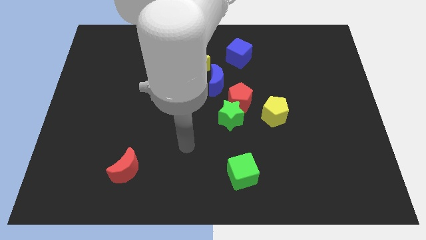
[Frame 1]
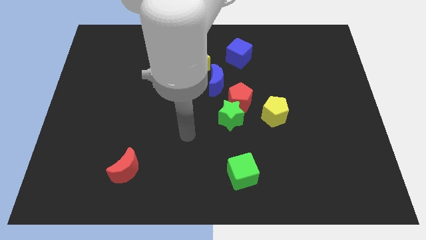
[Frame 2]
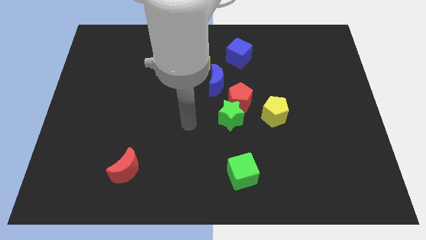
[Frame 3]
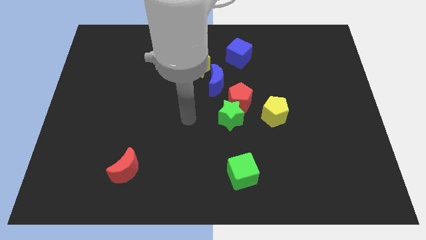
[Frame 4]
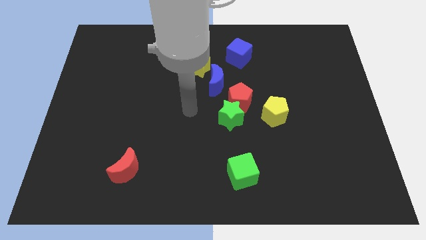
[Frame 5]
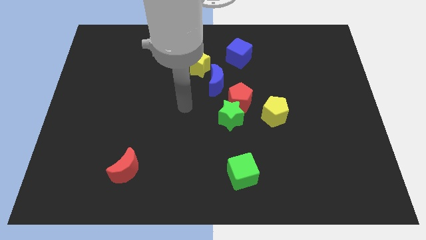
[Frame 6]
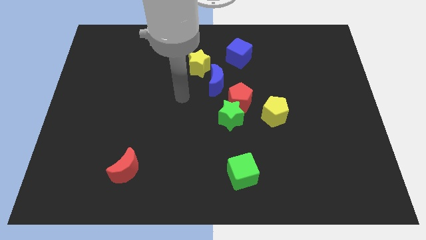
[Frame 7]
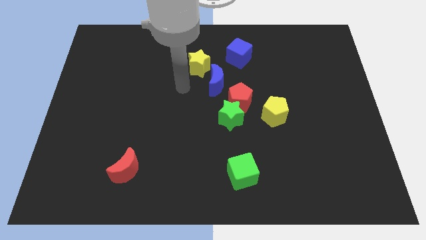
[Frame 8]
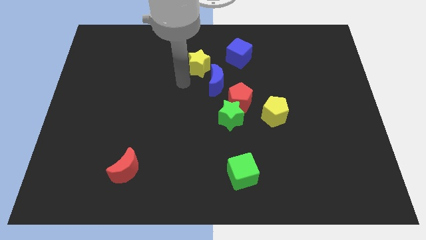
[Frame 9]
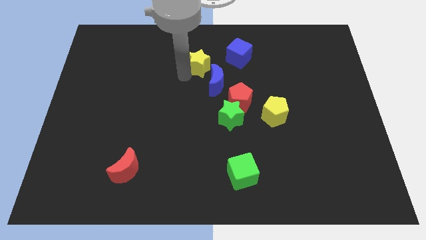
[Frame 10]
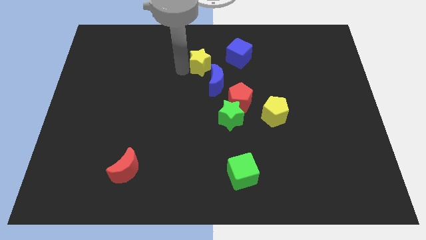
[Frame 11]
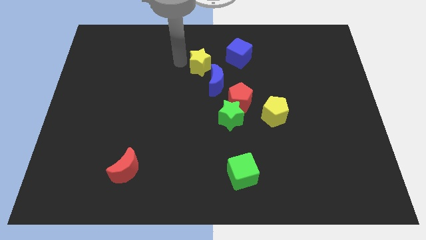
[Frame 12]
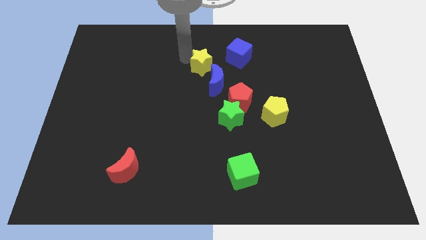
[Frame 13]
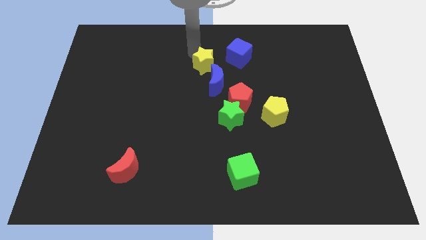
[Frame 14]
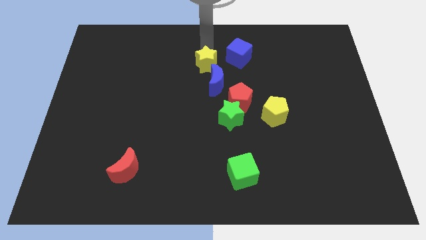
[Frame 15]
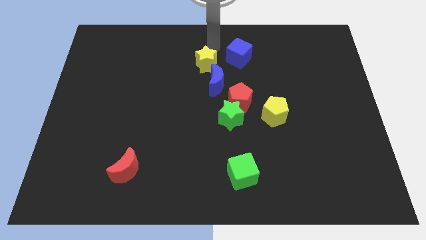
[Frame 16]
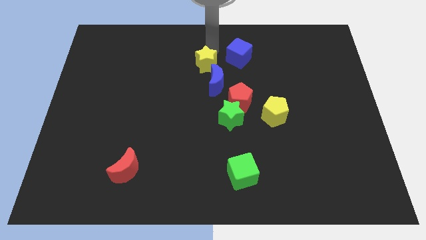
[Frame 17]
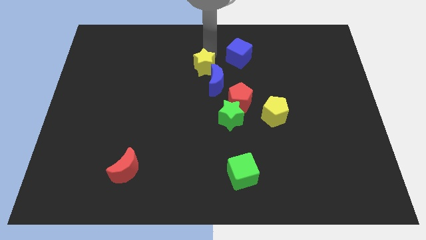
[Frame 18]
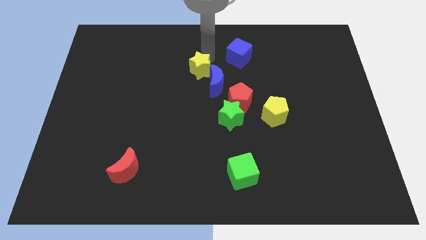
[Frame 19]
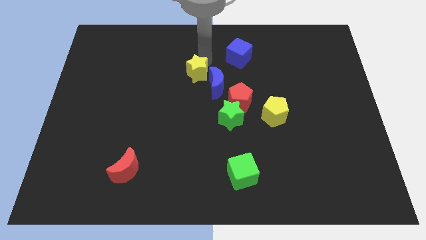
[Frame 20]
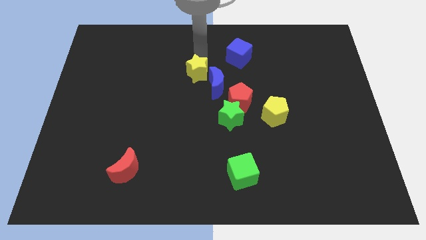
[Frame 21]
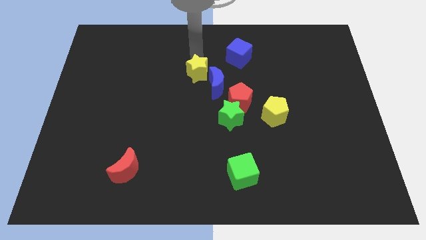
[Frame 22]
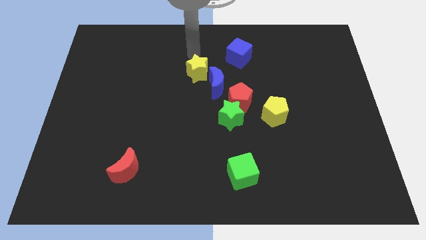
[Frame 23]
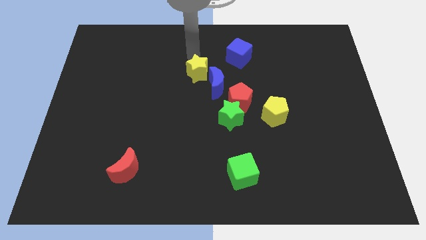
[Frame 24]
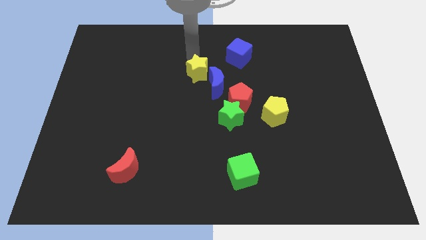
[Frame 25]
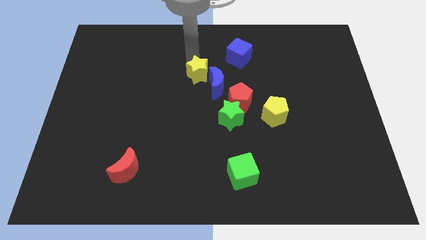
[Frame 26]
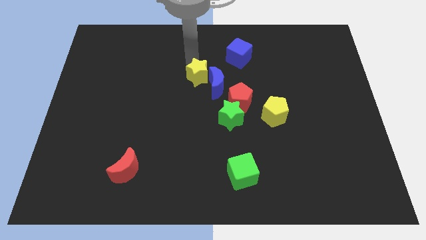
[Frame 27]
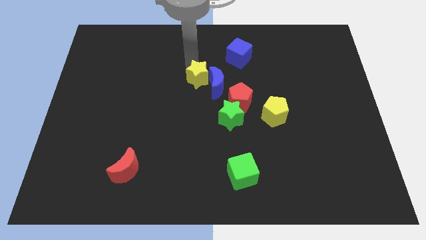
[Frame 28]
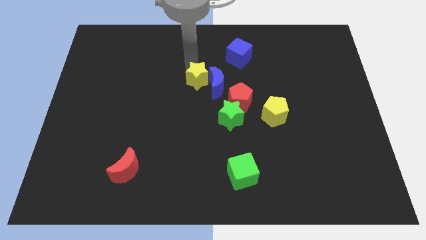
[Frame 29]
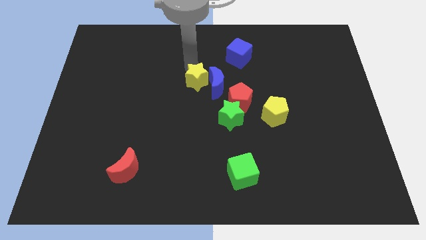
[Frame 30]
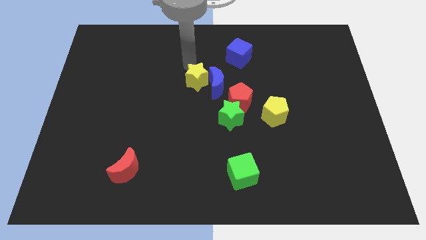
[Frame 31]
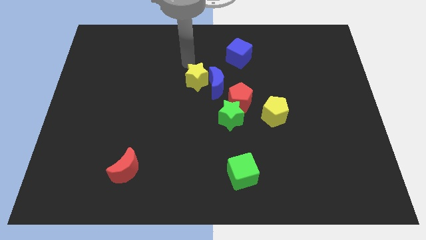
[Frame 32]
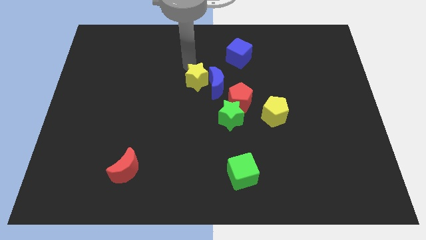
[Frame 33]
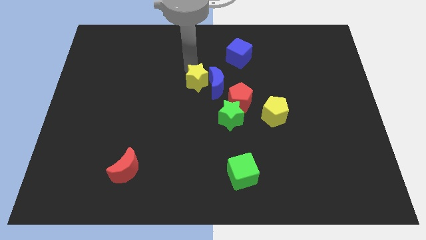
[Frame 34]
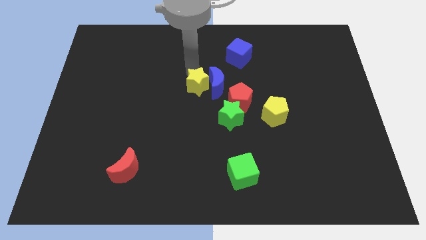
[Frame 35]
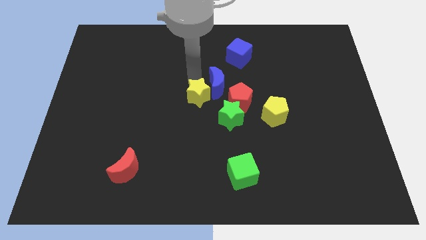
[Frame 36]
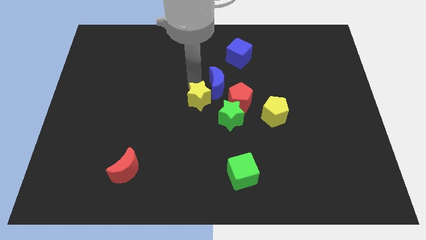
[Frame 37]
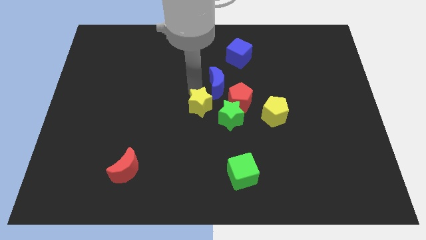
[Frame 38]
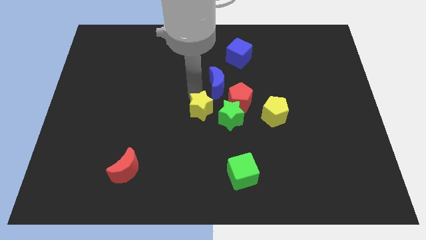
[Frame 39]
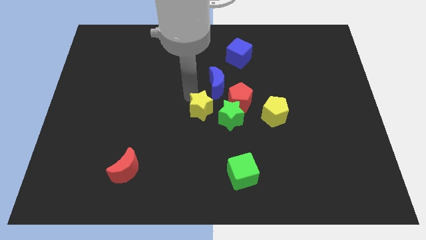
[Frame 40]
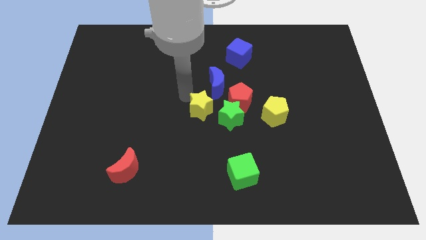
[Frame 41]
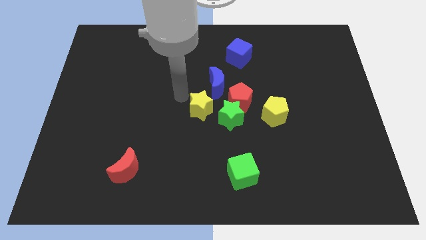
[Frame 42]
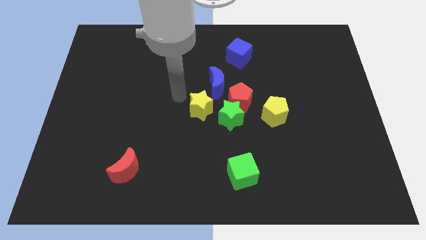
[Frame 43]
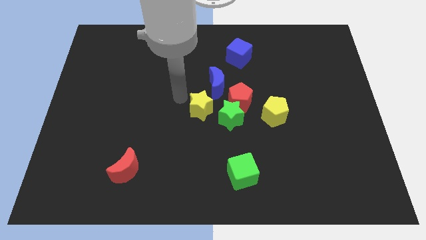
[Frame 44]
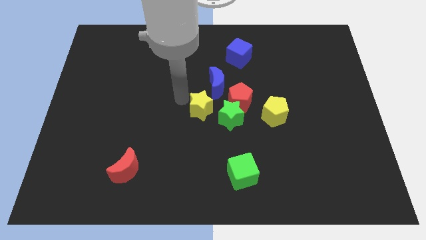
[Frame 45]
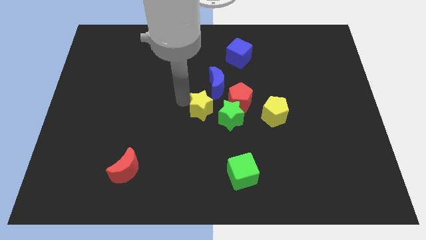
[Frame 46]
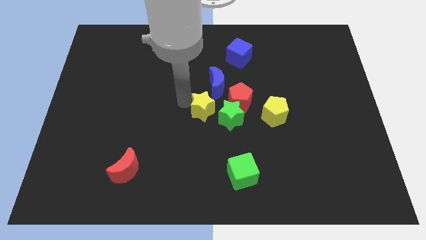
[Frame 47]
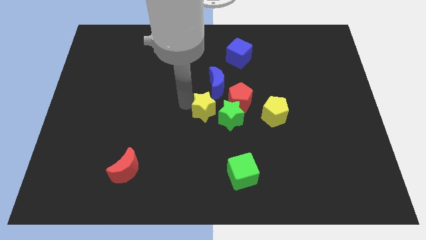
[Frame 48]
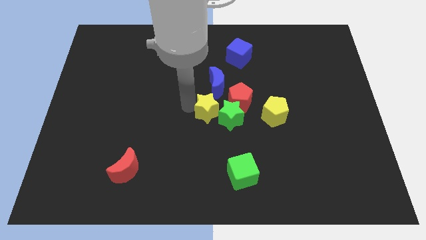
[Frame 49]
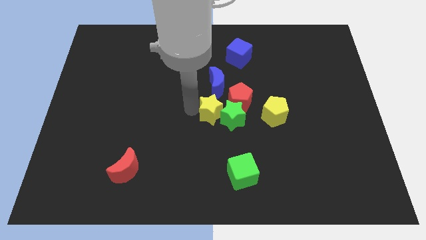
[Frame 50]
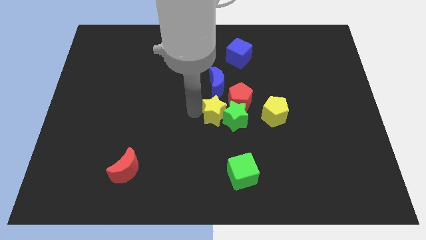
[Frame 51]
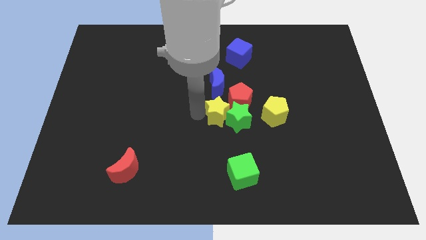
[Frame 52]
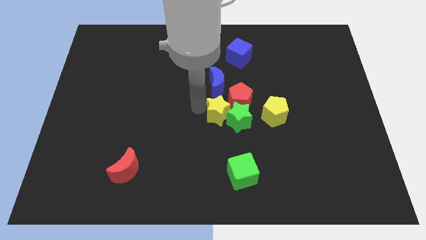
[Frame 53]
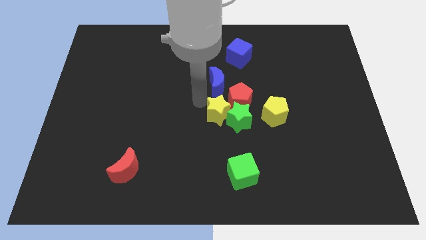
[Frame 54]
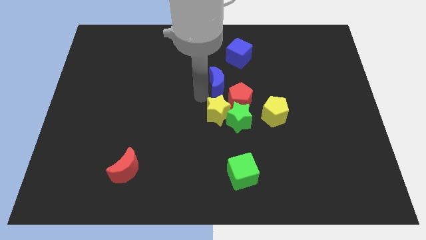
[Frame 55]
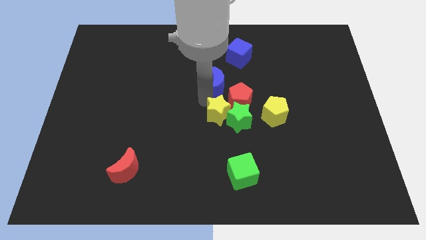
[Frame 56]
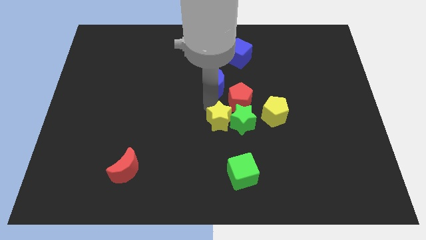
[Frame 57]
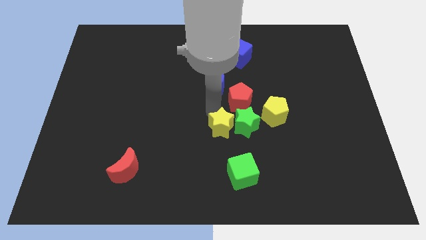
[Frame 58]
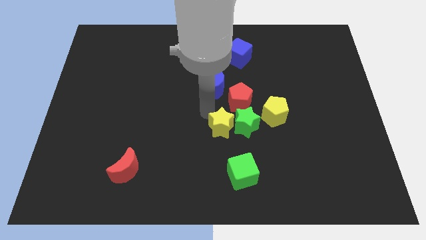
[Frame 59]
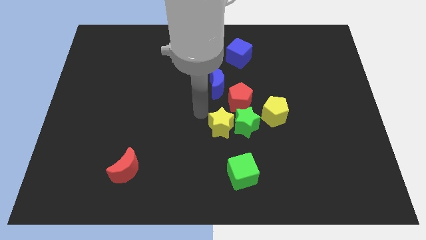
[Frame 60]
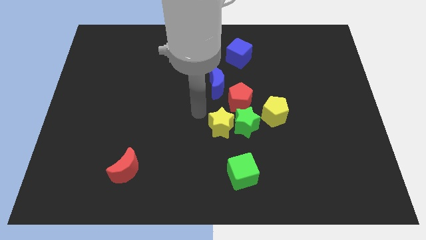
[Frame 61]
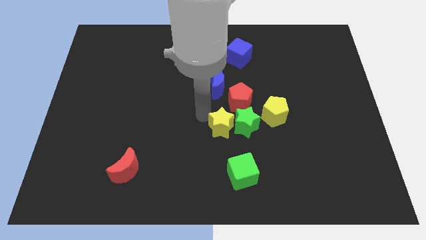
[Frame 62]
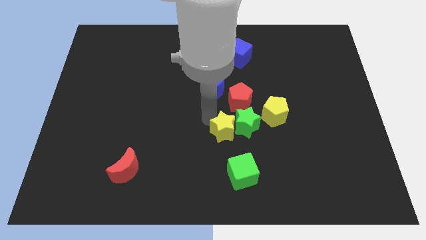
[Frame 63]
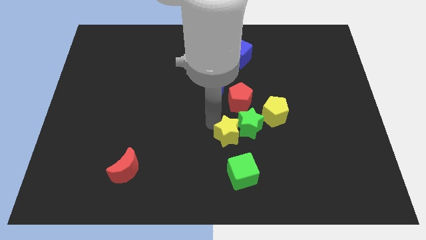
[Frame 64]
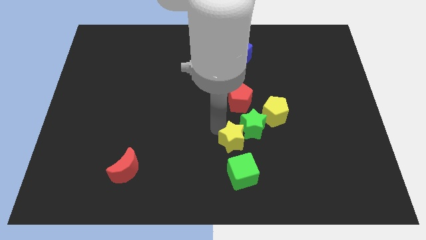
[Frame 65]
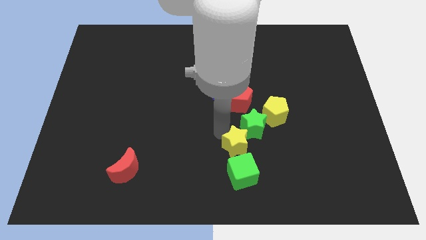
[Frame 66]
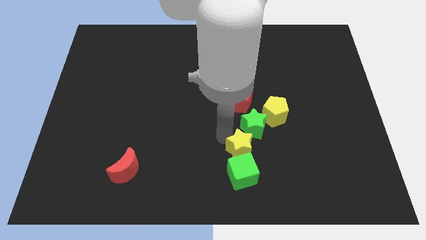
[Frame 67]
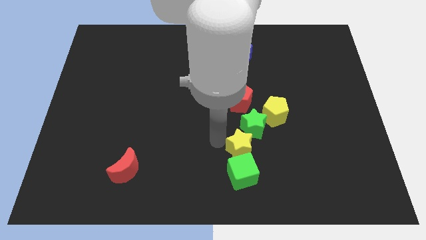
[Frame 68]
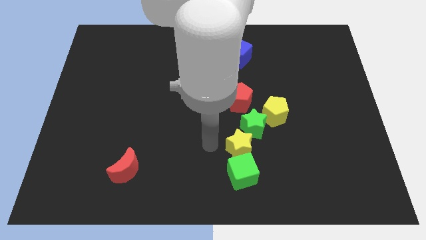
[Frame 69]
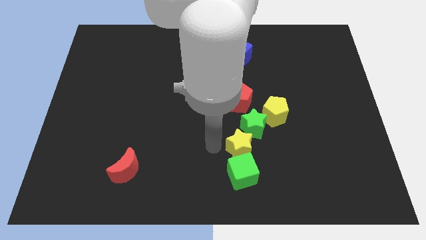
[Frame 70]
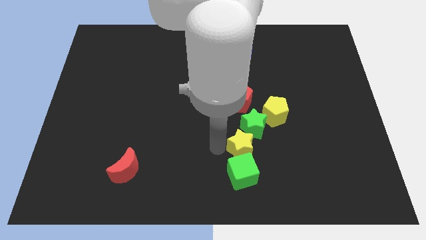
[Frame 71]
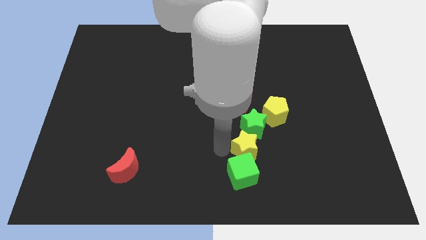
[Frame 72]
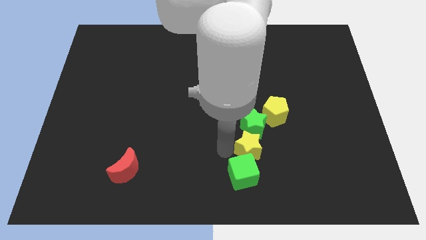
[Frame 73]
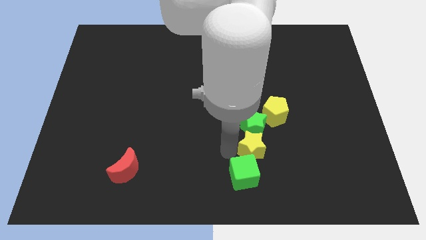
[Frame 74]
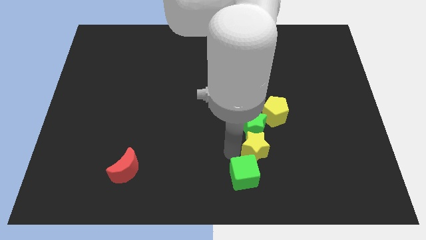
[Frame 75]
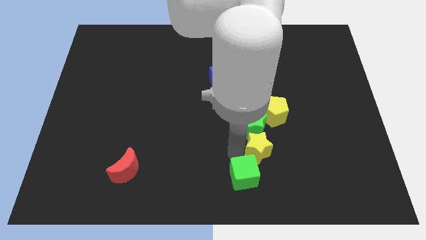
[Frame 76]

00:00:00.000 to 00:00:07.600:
push the yellow star below the yellow pentagon
